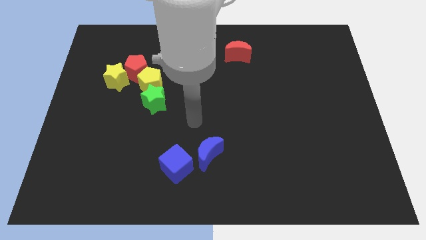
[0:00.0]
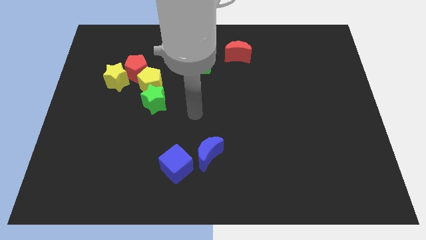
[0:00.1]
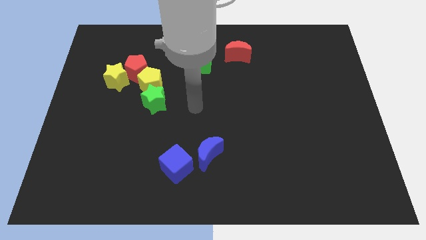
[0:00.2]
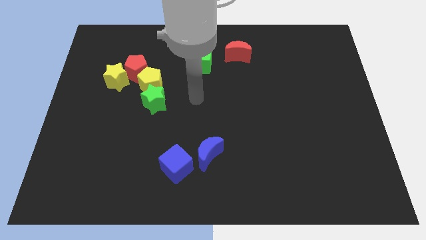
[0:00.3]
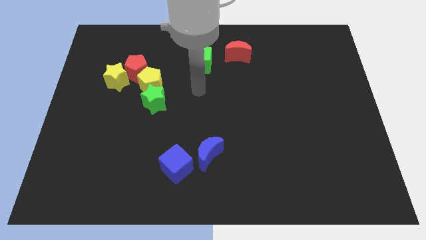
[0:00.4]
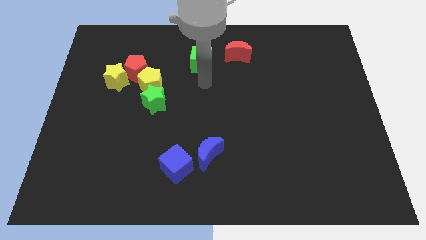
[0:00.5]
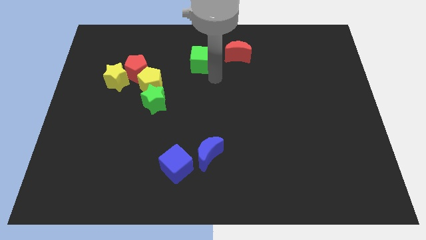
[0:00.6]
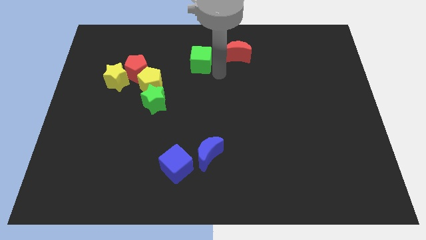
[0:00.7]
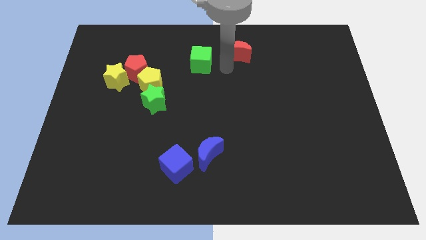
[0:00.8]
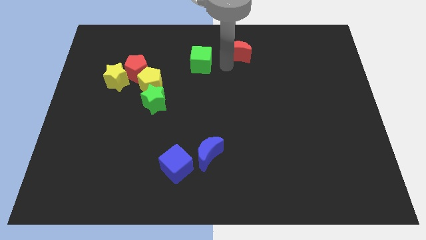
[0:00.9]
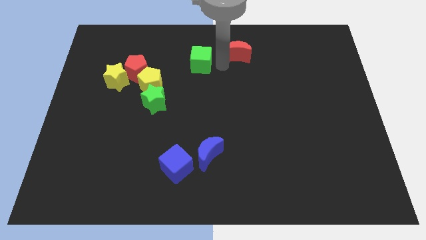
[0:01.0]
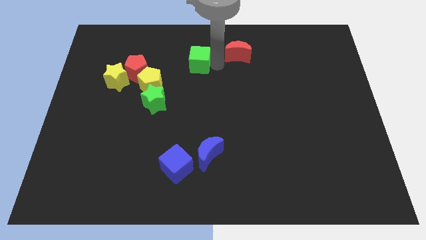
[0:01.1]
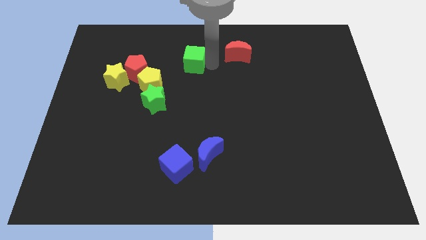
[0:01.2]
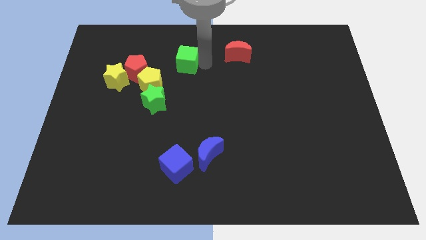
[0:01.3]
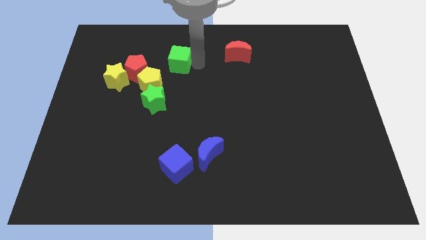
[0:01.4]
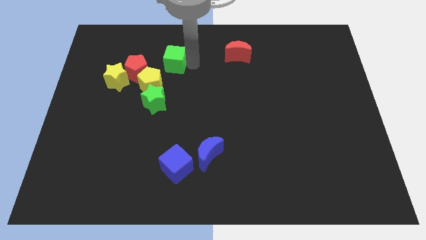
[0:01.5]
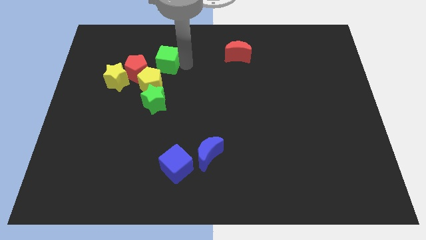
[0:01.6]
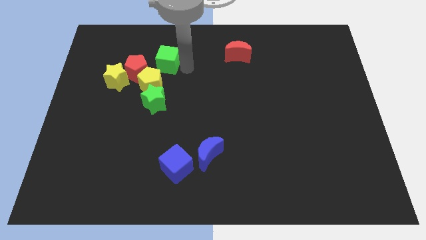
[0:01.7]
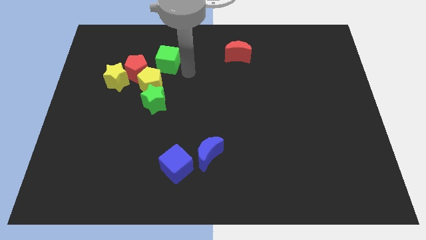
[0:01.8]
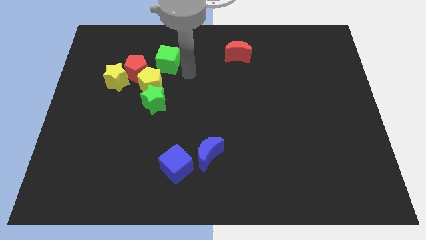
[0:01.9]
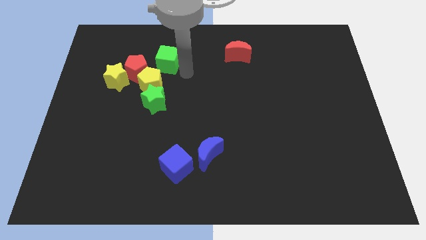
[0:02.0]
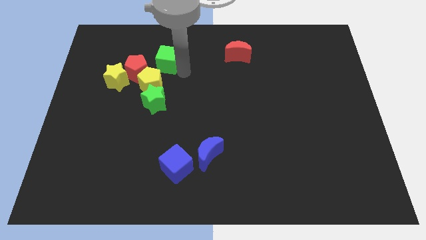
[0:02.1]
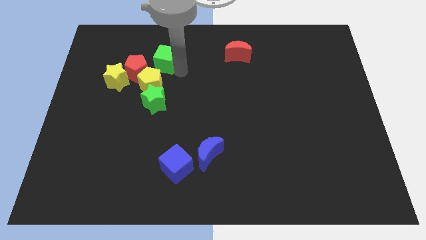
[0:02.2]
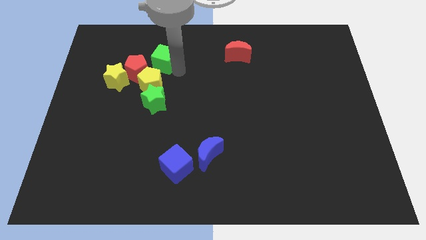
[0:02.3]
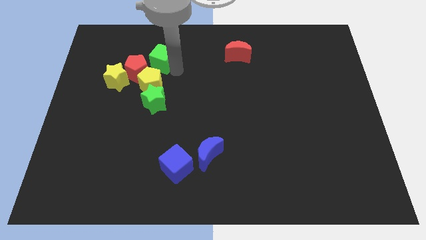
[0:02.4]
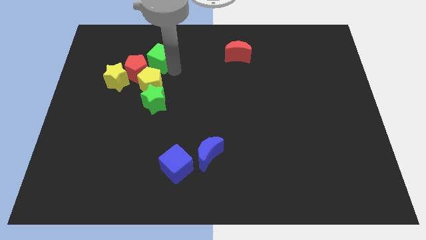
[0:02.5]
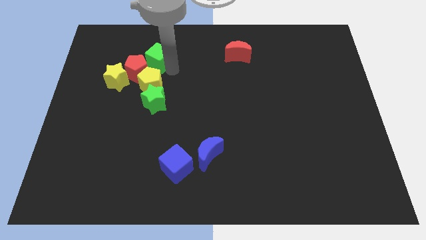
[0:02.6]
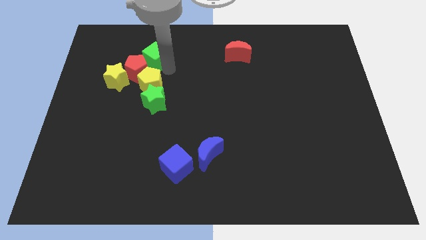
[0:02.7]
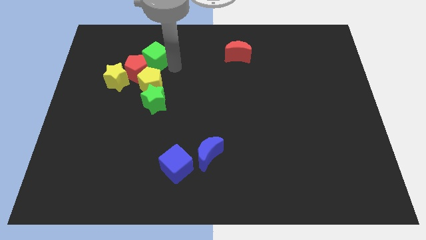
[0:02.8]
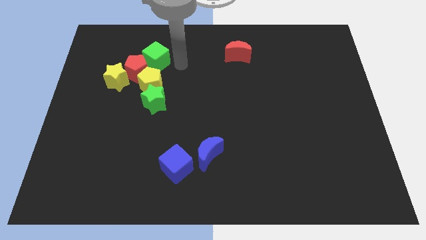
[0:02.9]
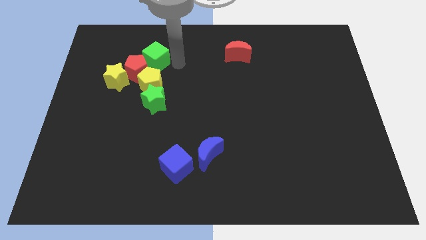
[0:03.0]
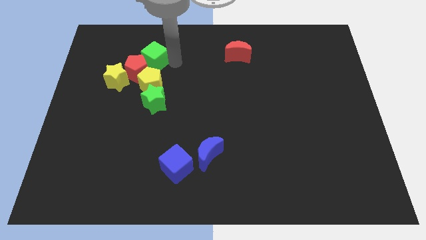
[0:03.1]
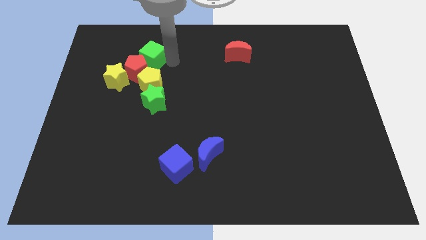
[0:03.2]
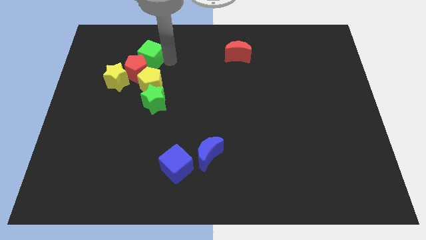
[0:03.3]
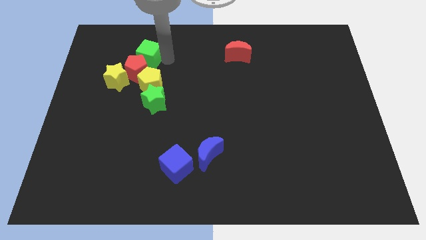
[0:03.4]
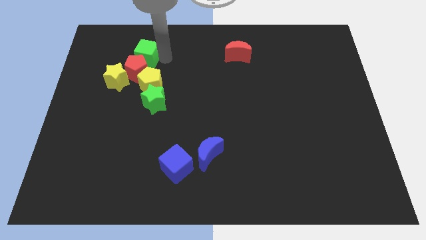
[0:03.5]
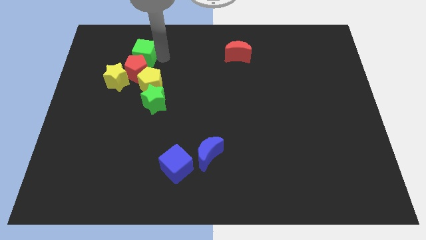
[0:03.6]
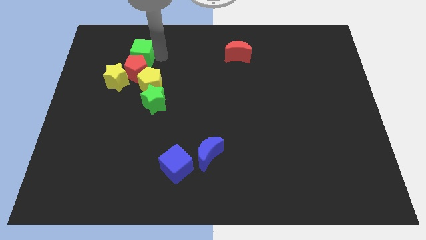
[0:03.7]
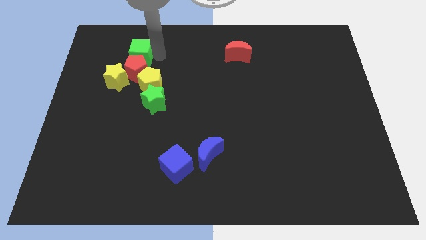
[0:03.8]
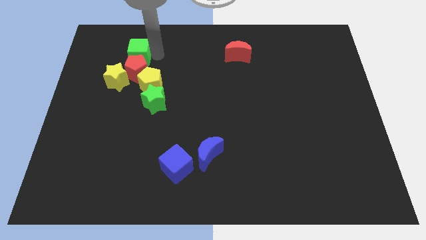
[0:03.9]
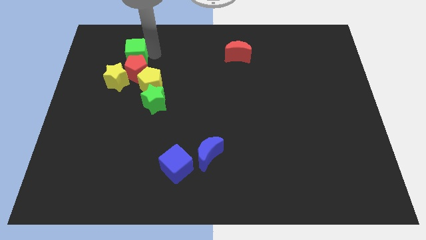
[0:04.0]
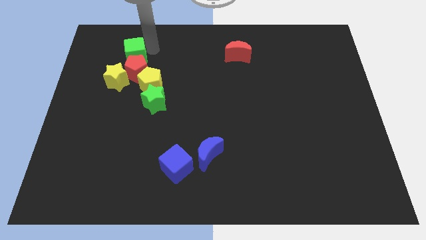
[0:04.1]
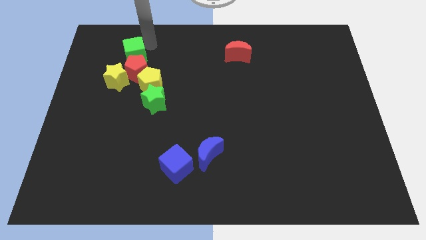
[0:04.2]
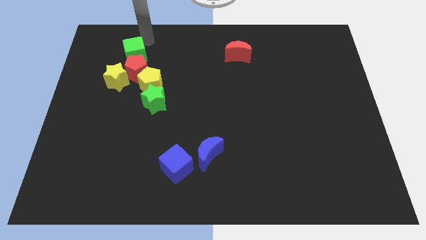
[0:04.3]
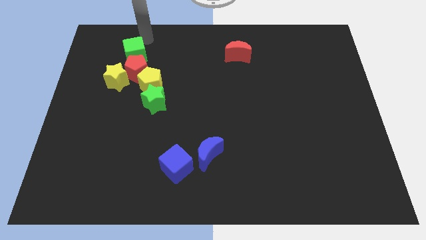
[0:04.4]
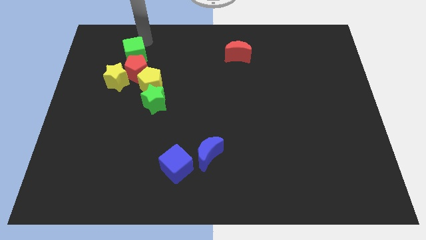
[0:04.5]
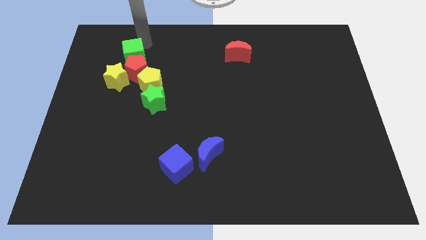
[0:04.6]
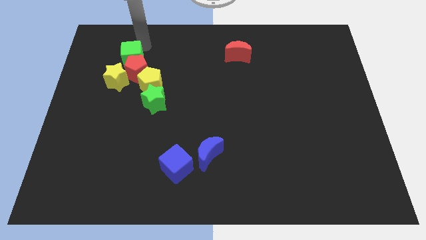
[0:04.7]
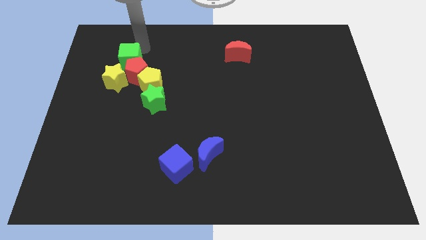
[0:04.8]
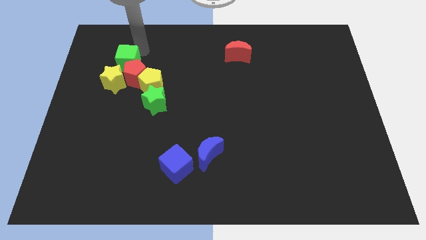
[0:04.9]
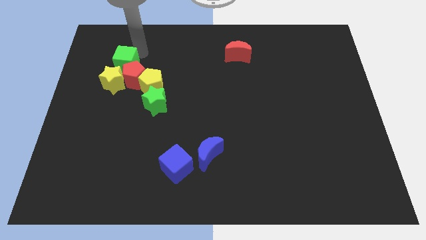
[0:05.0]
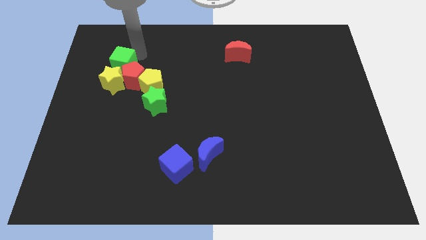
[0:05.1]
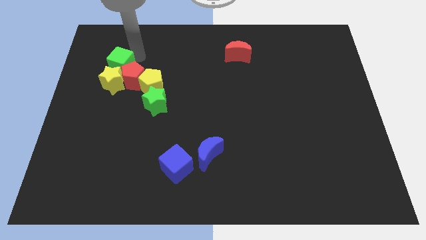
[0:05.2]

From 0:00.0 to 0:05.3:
move the green cube close to the yellow star

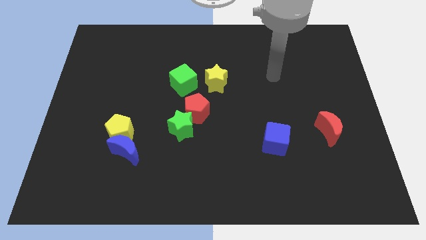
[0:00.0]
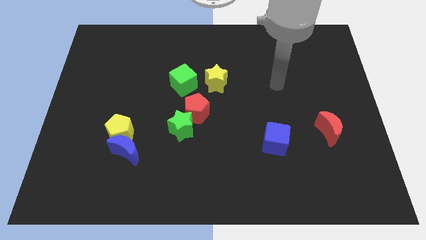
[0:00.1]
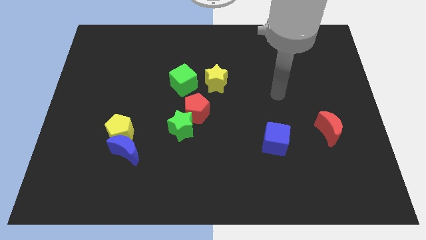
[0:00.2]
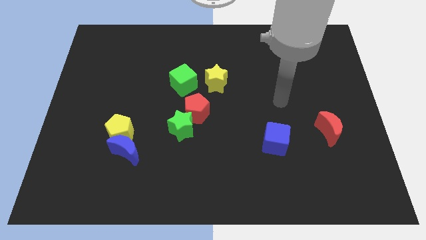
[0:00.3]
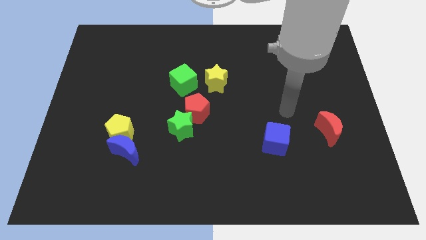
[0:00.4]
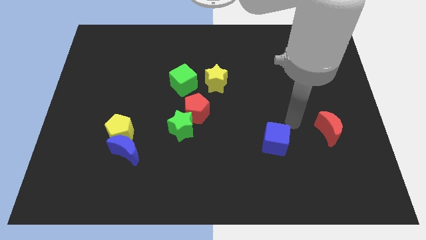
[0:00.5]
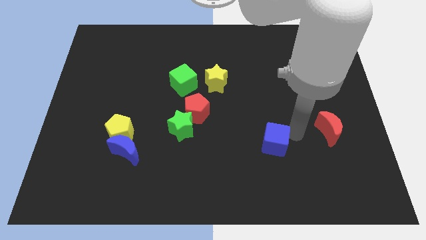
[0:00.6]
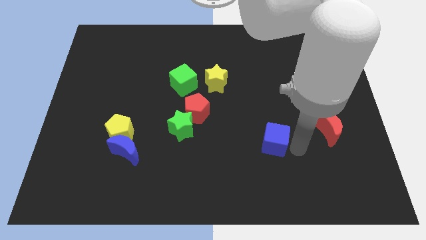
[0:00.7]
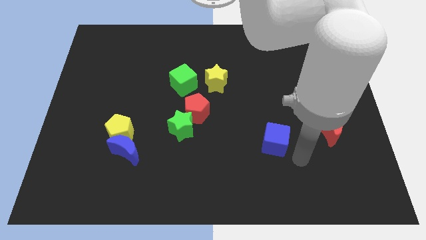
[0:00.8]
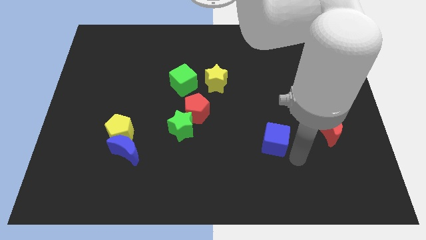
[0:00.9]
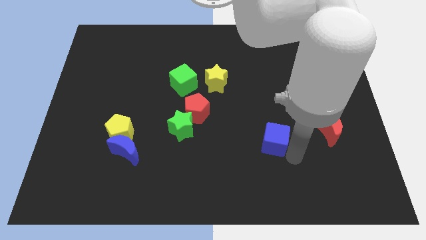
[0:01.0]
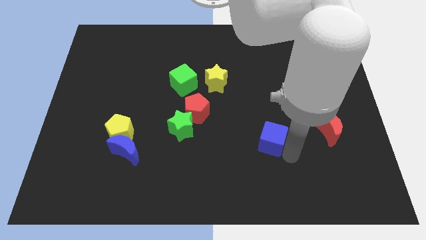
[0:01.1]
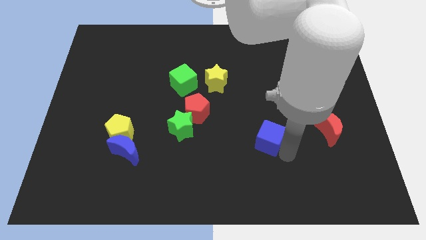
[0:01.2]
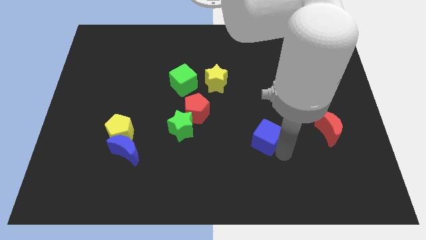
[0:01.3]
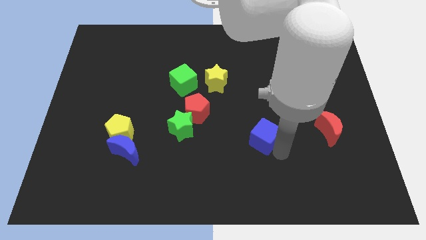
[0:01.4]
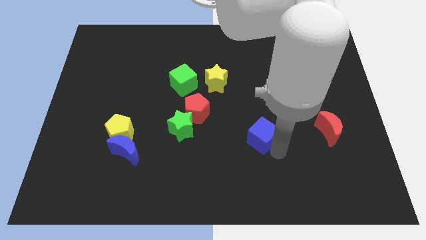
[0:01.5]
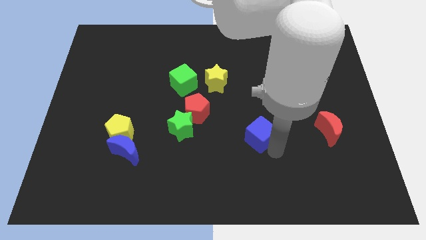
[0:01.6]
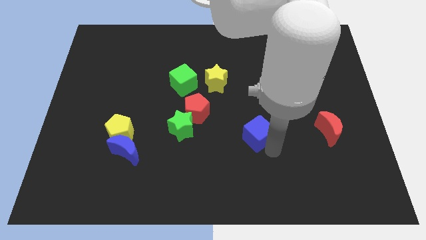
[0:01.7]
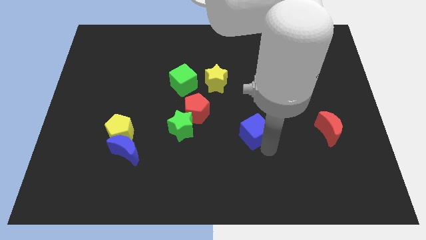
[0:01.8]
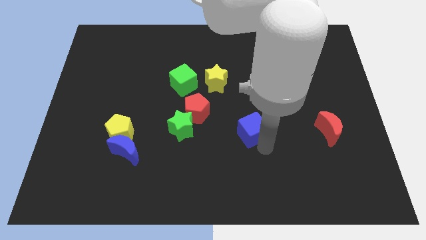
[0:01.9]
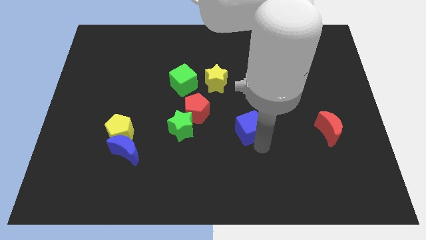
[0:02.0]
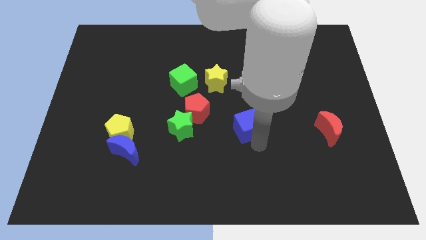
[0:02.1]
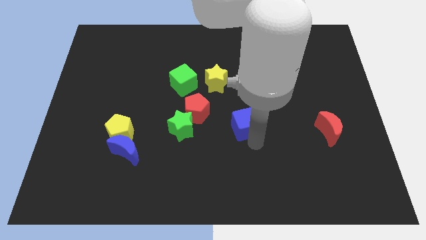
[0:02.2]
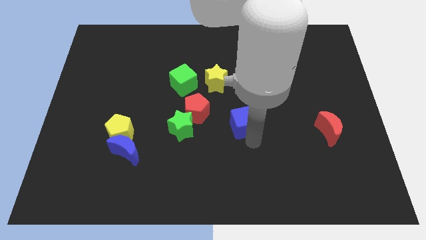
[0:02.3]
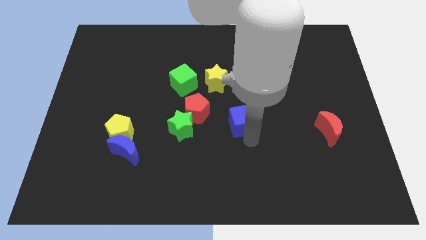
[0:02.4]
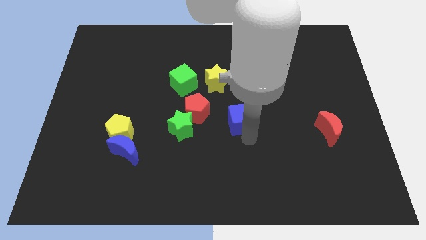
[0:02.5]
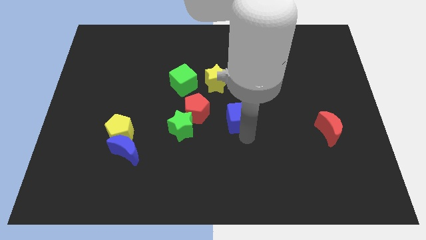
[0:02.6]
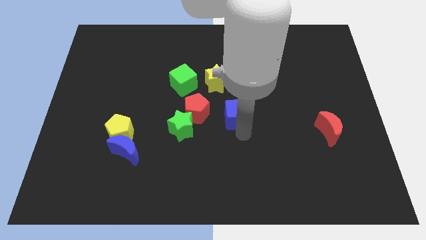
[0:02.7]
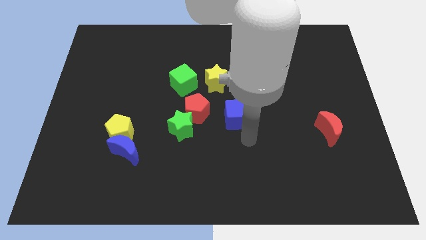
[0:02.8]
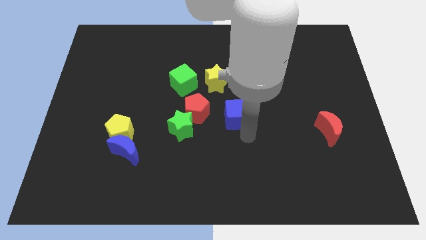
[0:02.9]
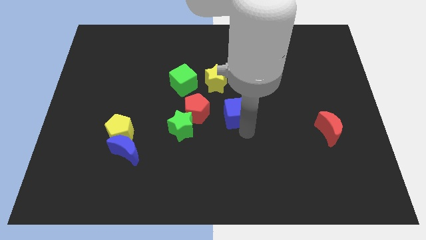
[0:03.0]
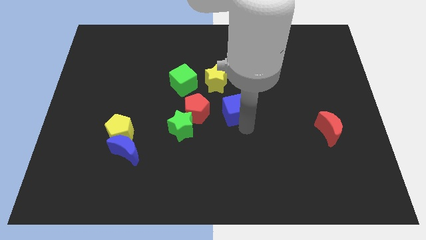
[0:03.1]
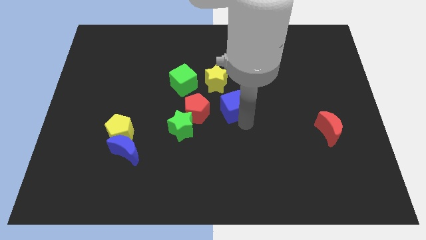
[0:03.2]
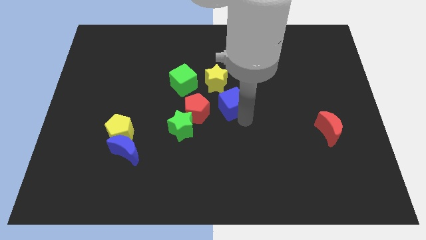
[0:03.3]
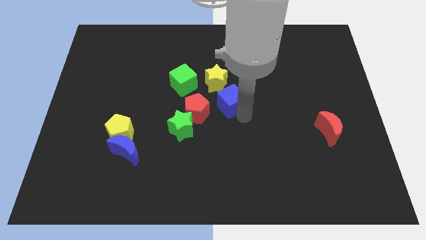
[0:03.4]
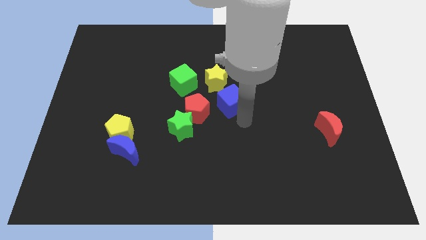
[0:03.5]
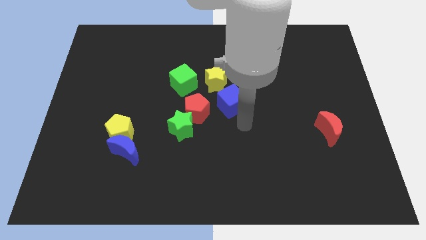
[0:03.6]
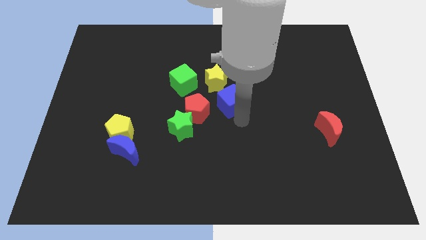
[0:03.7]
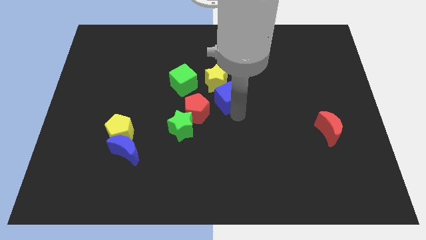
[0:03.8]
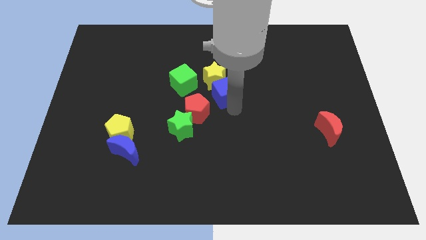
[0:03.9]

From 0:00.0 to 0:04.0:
push the blue cube close to the yellow star
